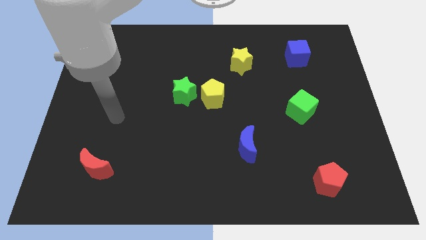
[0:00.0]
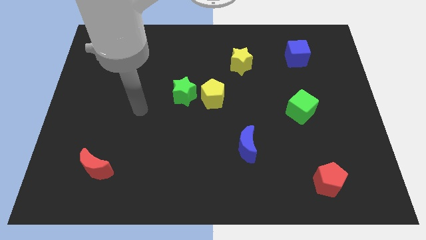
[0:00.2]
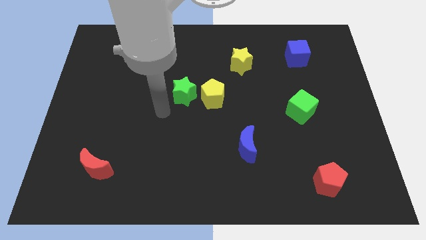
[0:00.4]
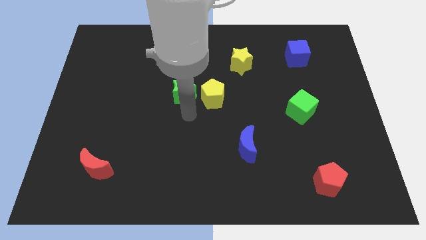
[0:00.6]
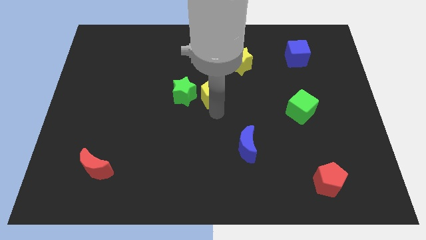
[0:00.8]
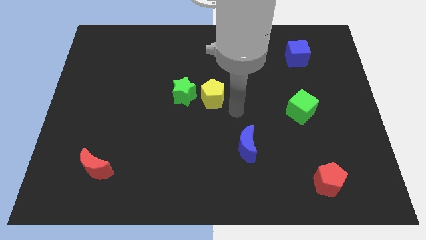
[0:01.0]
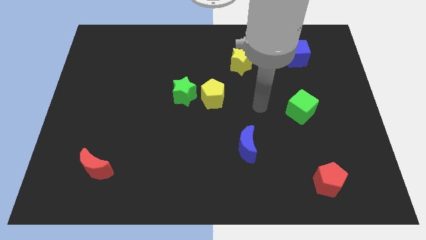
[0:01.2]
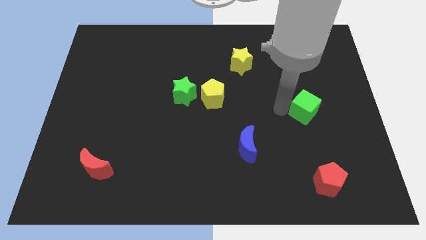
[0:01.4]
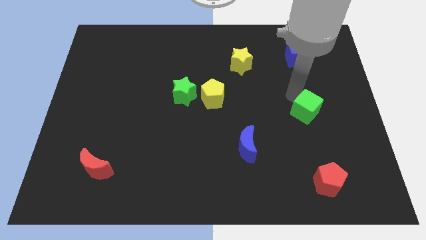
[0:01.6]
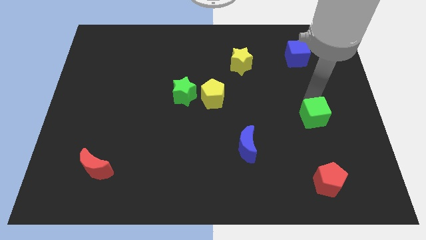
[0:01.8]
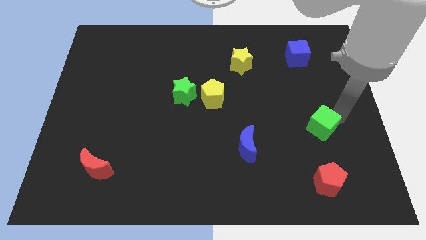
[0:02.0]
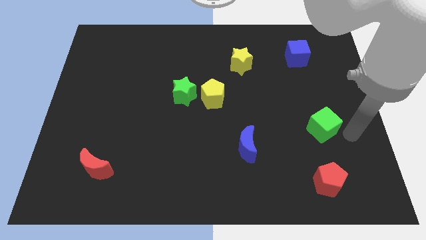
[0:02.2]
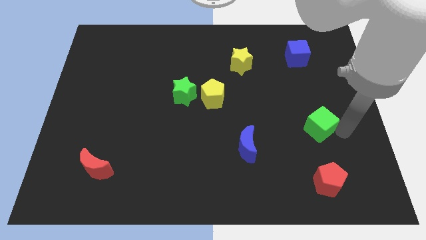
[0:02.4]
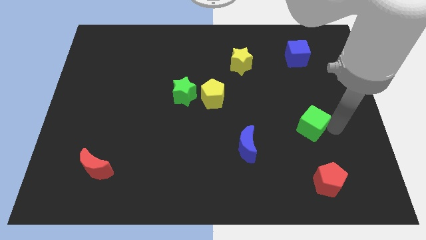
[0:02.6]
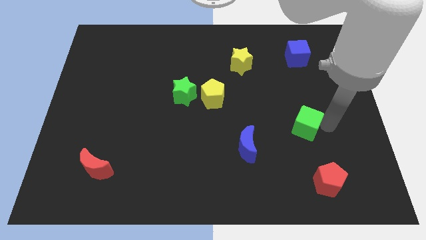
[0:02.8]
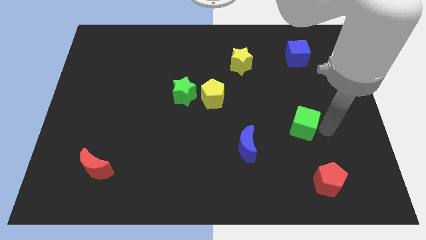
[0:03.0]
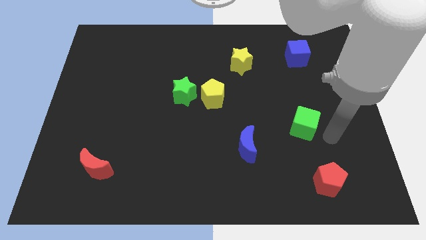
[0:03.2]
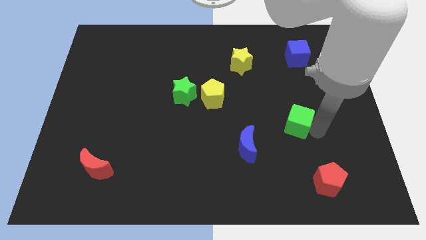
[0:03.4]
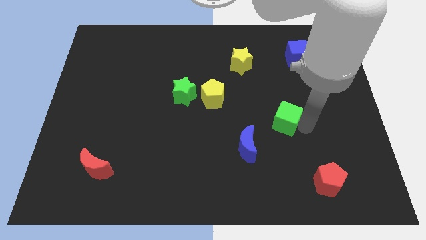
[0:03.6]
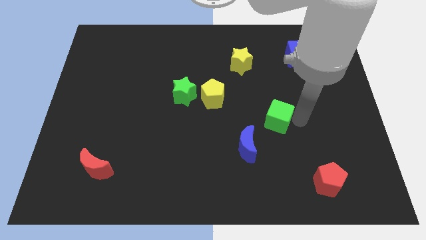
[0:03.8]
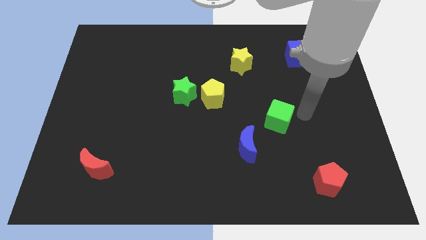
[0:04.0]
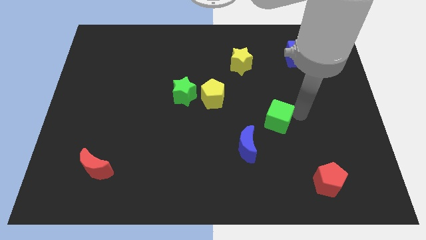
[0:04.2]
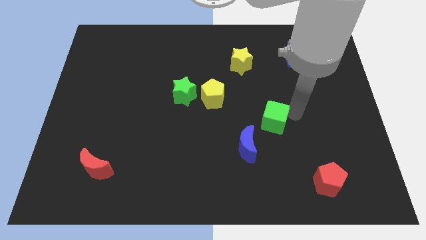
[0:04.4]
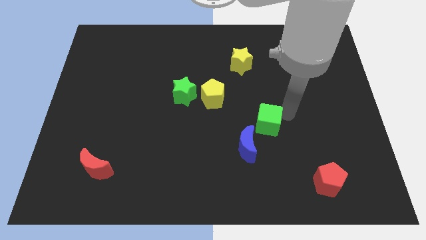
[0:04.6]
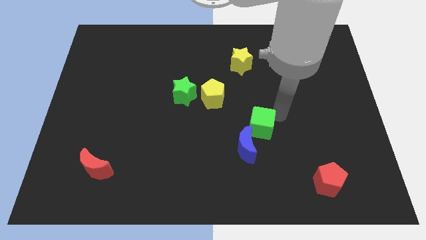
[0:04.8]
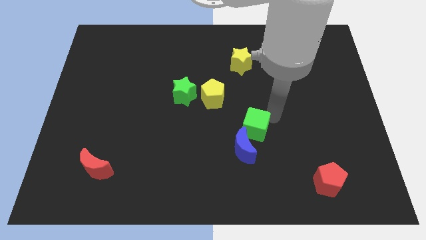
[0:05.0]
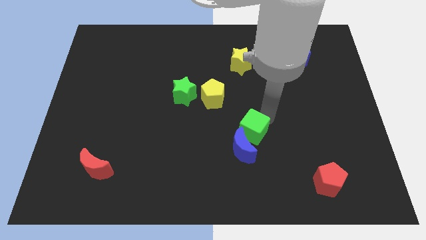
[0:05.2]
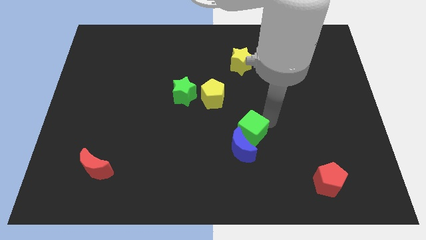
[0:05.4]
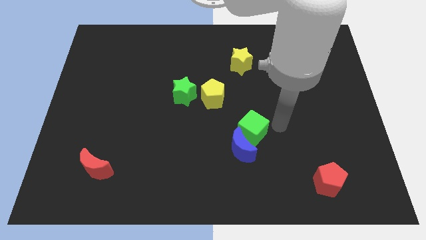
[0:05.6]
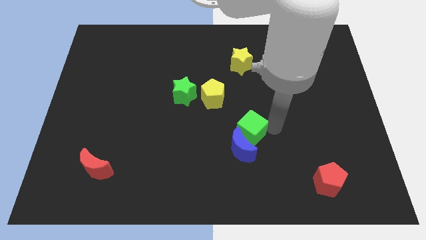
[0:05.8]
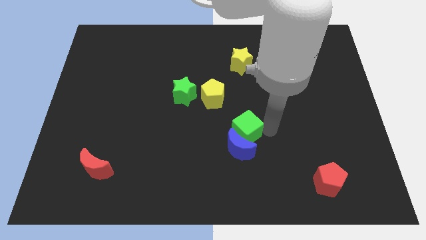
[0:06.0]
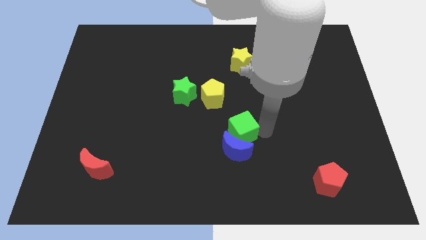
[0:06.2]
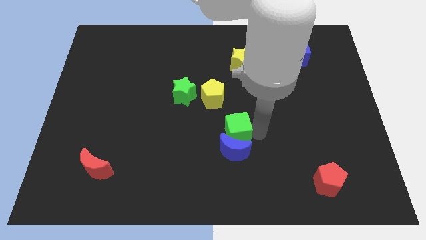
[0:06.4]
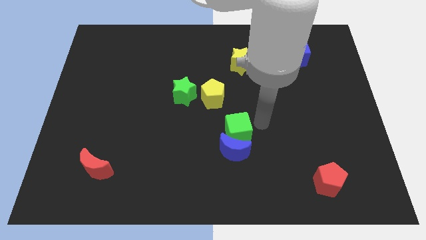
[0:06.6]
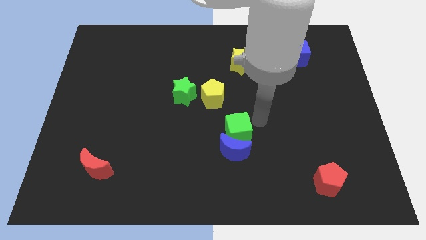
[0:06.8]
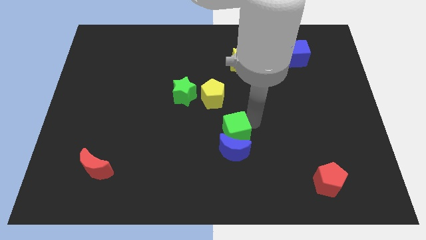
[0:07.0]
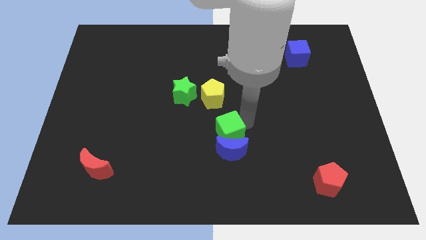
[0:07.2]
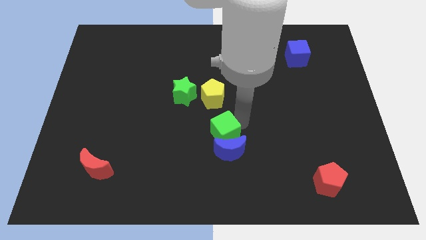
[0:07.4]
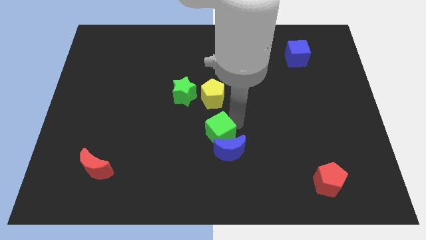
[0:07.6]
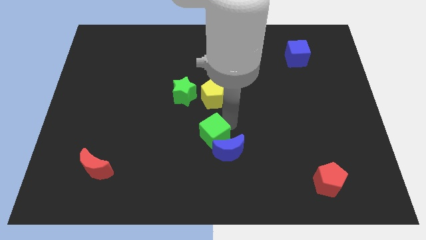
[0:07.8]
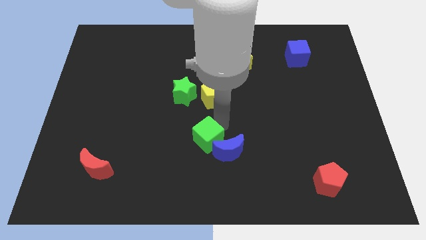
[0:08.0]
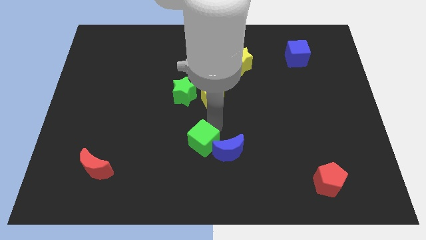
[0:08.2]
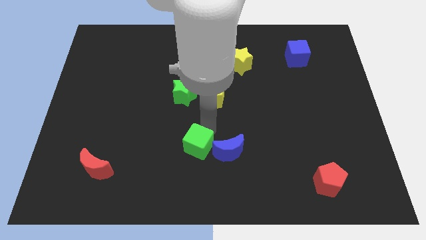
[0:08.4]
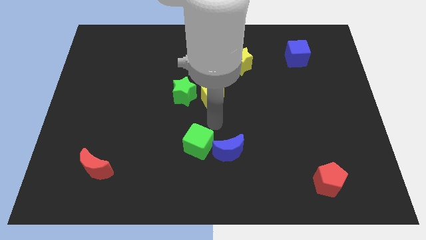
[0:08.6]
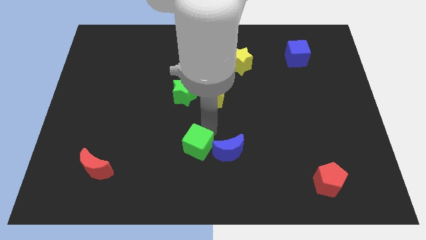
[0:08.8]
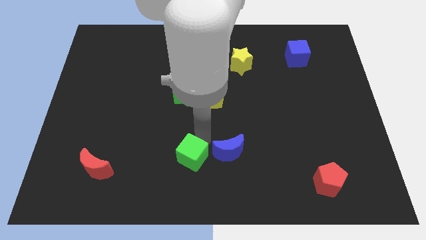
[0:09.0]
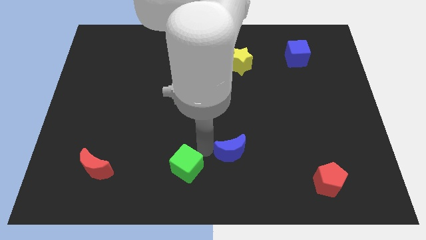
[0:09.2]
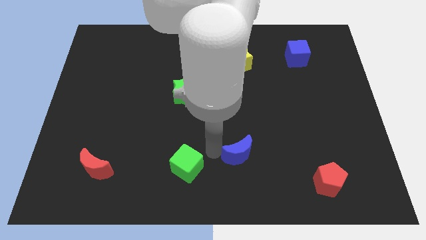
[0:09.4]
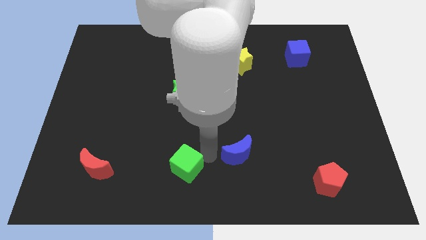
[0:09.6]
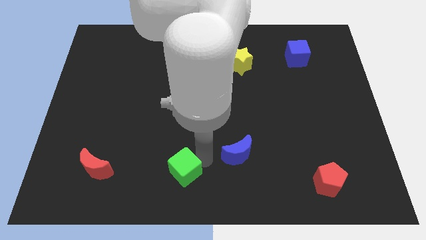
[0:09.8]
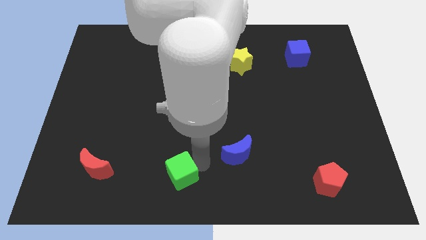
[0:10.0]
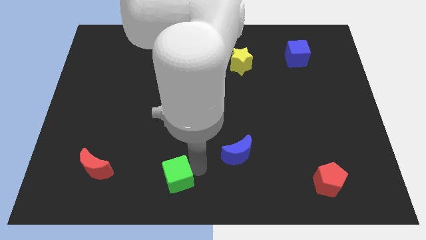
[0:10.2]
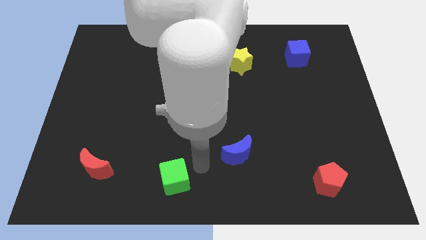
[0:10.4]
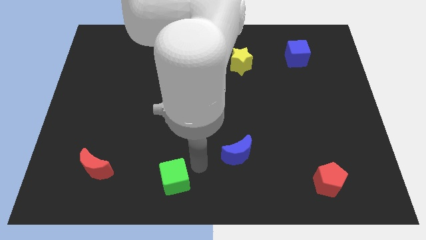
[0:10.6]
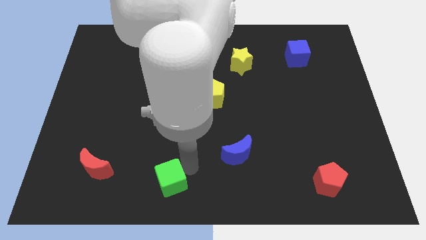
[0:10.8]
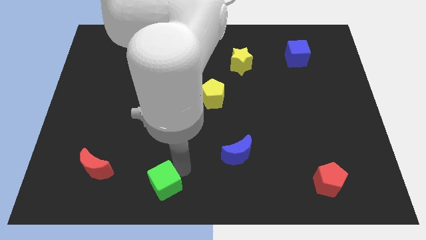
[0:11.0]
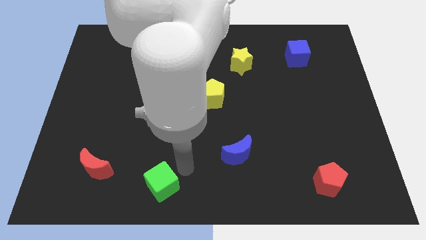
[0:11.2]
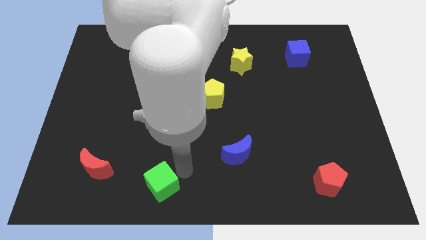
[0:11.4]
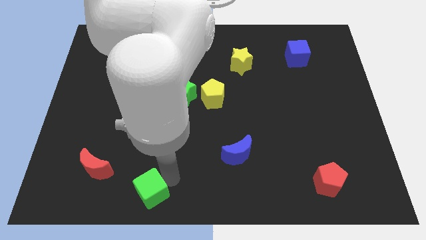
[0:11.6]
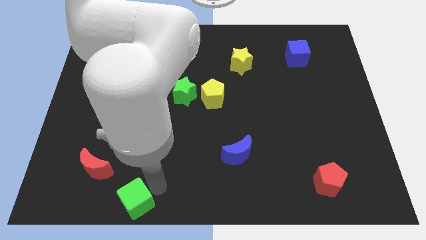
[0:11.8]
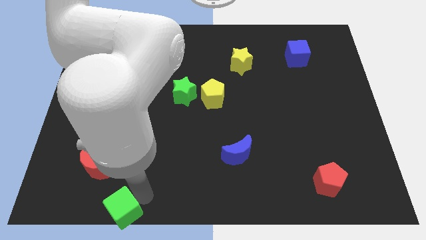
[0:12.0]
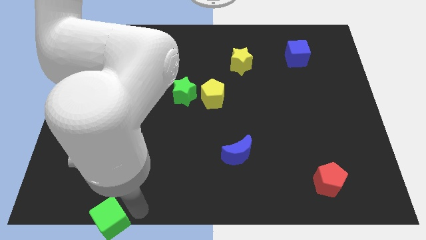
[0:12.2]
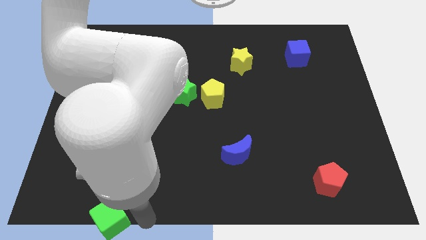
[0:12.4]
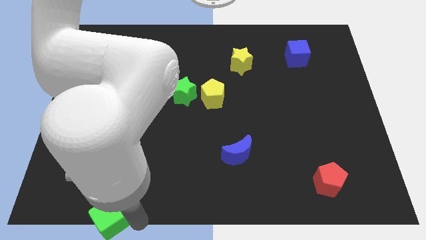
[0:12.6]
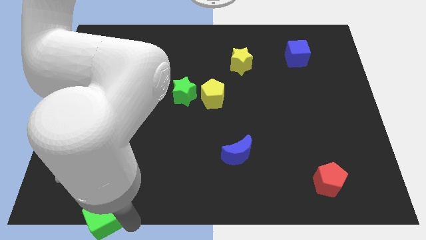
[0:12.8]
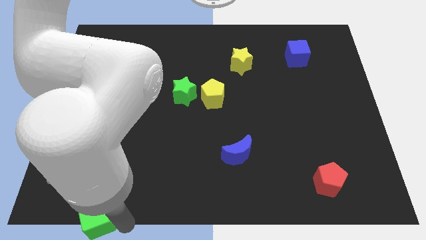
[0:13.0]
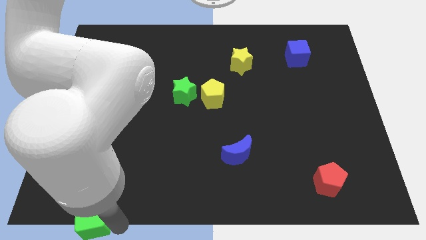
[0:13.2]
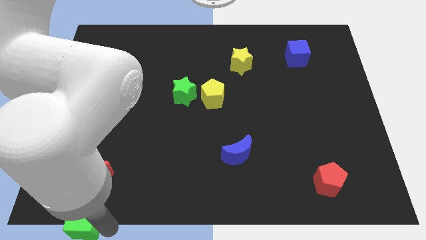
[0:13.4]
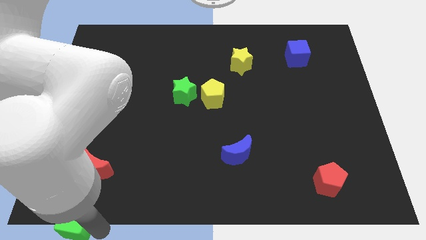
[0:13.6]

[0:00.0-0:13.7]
put the green cube to the bottom left corner
